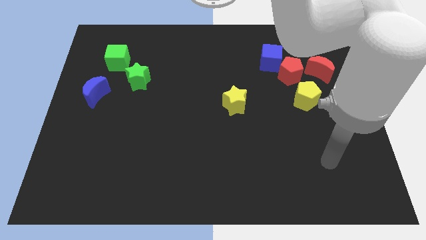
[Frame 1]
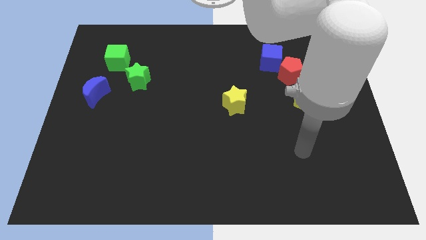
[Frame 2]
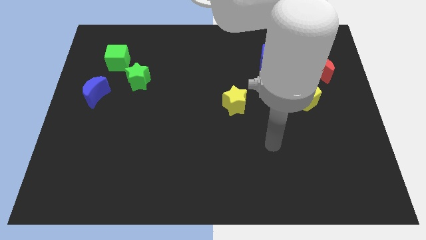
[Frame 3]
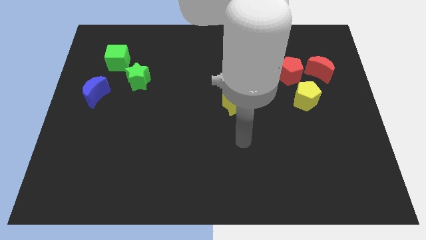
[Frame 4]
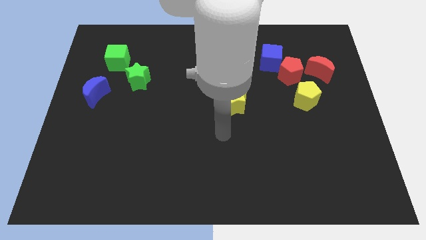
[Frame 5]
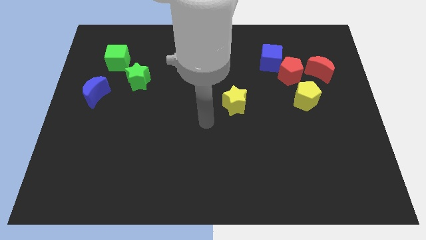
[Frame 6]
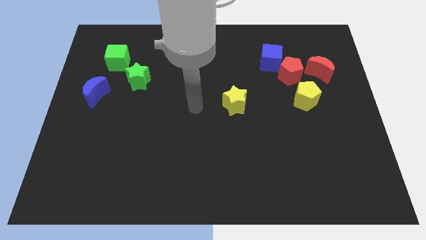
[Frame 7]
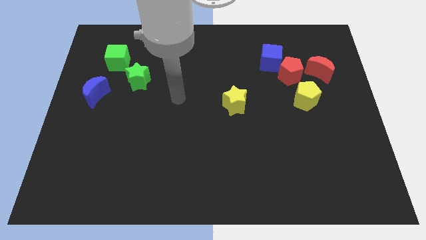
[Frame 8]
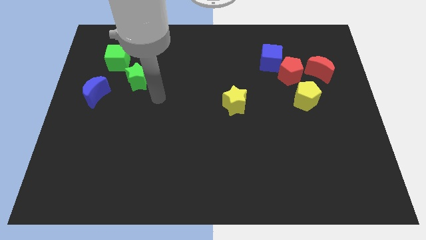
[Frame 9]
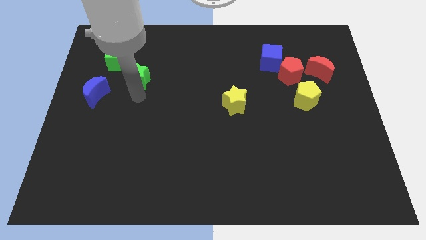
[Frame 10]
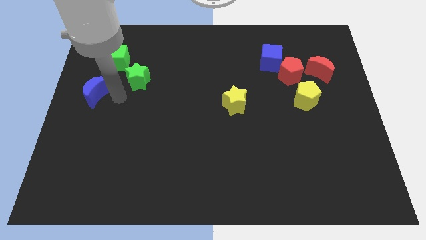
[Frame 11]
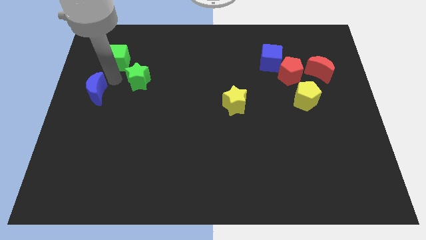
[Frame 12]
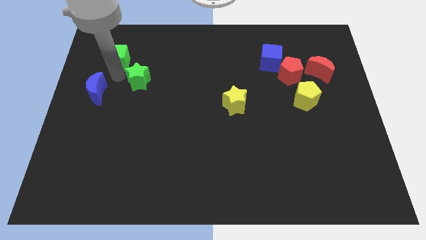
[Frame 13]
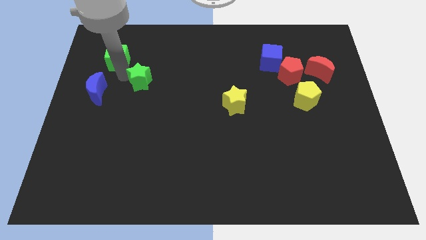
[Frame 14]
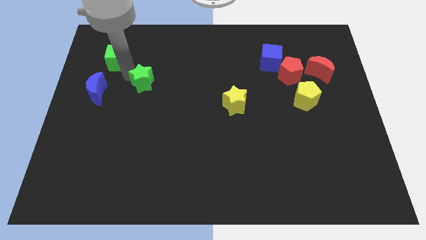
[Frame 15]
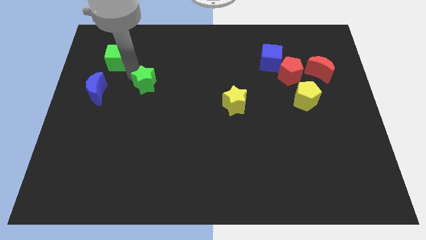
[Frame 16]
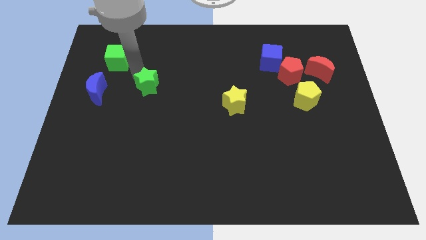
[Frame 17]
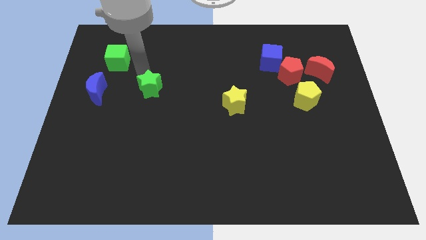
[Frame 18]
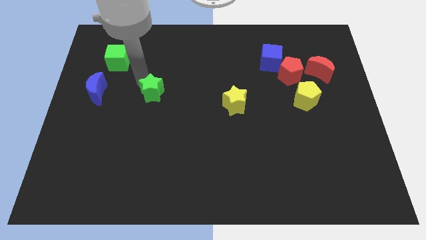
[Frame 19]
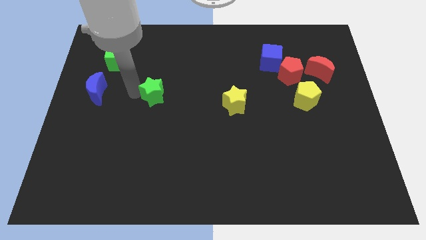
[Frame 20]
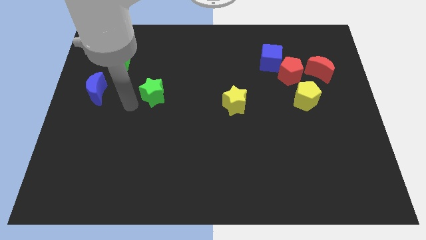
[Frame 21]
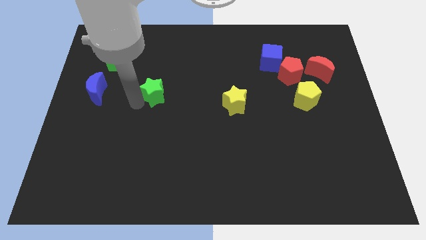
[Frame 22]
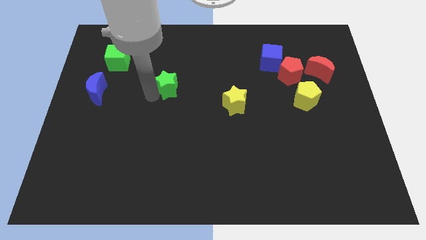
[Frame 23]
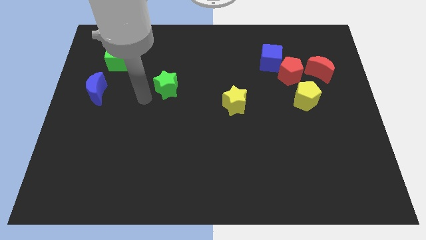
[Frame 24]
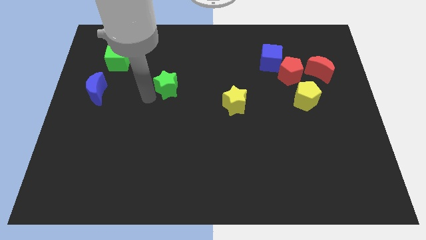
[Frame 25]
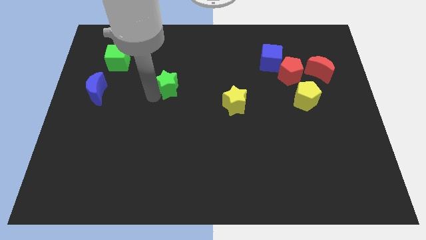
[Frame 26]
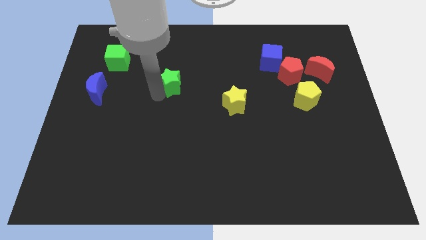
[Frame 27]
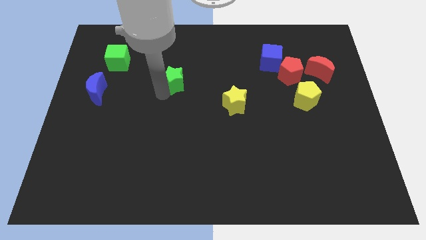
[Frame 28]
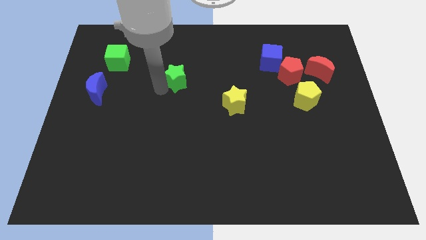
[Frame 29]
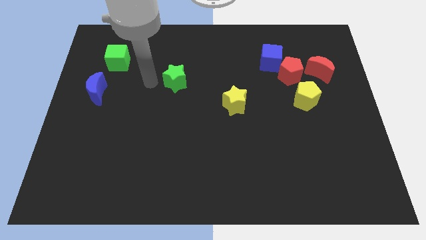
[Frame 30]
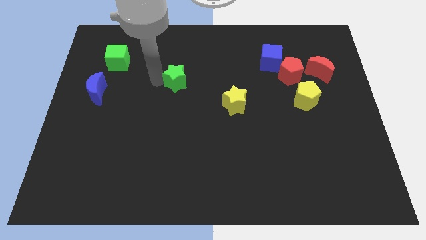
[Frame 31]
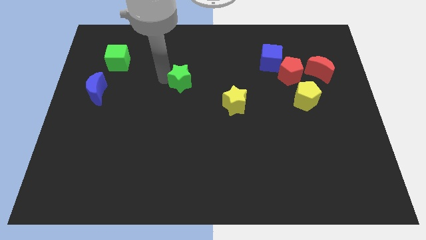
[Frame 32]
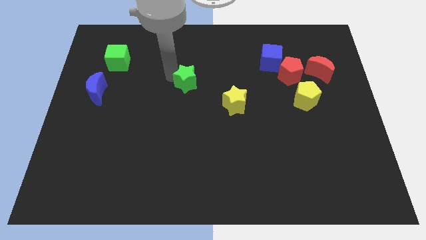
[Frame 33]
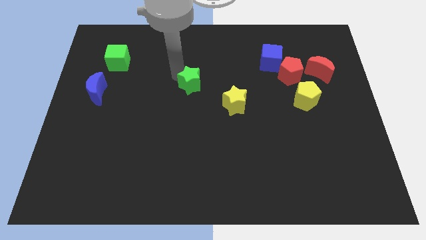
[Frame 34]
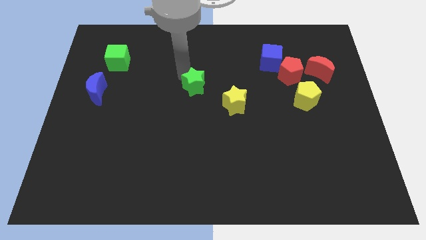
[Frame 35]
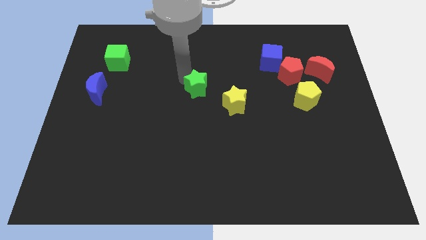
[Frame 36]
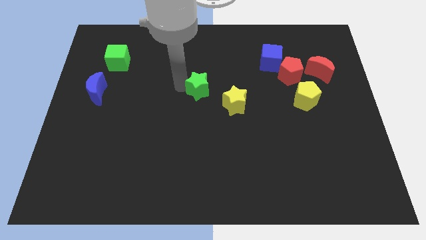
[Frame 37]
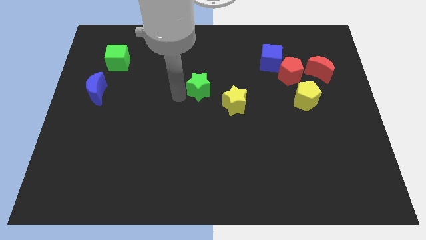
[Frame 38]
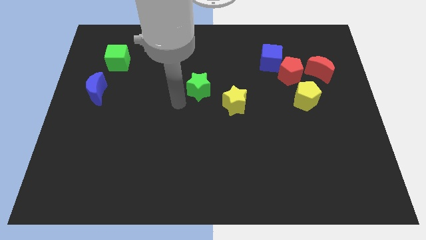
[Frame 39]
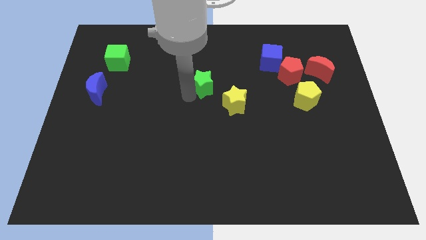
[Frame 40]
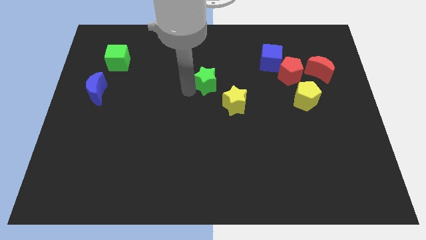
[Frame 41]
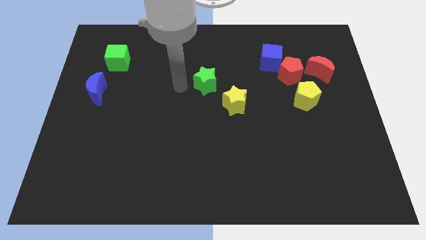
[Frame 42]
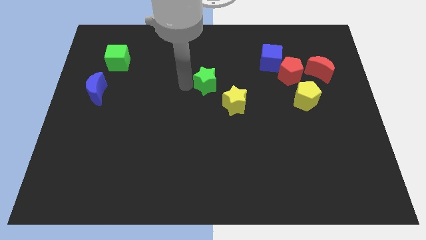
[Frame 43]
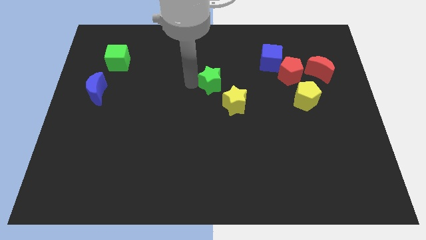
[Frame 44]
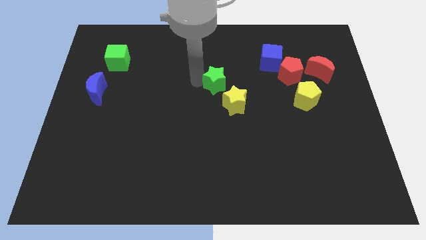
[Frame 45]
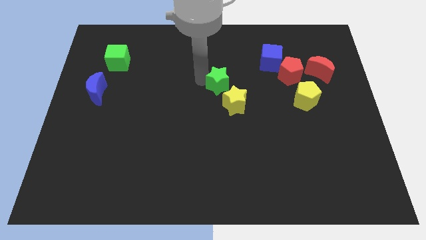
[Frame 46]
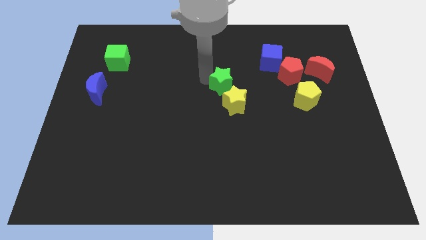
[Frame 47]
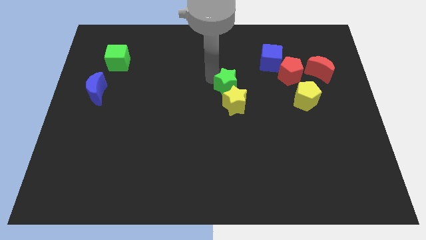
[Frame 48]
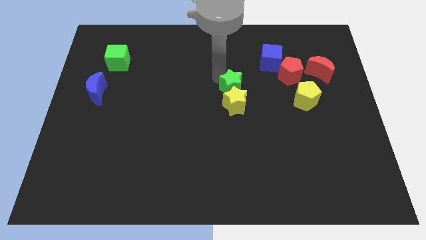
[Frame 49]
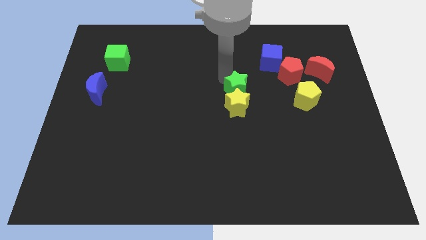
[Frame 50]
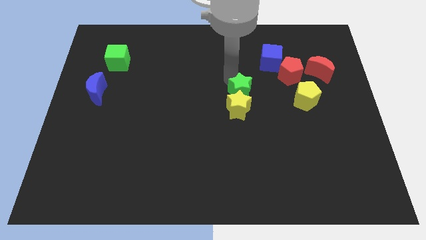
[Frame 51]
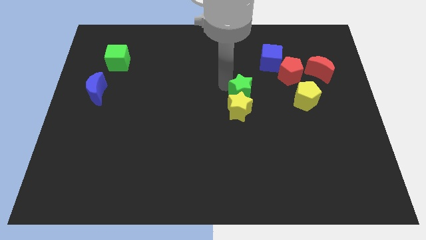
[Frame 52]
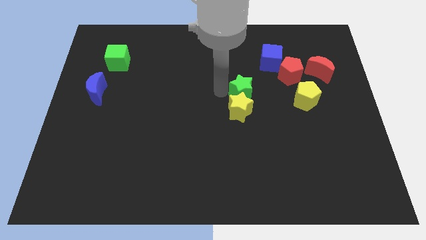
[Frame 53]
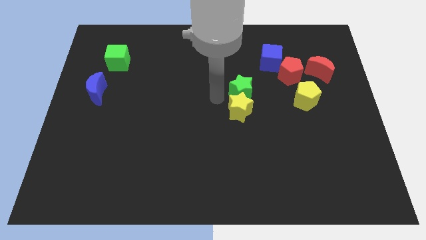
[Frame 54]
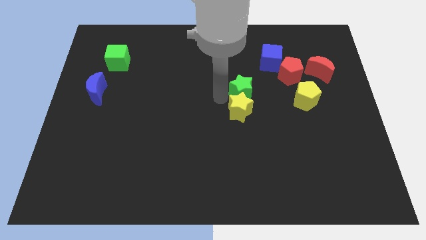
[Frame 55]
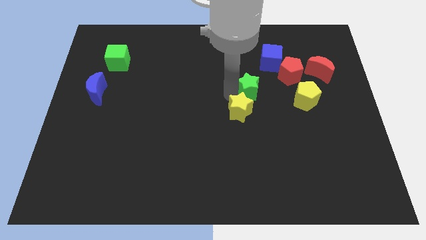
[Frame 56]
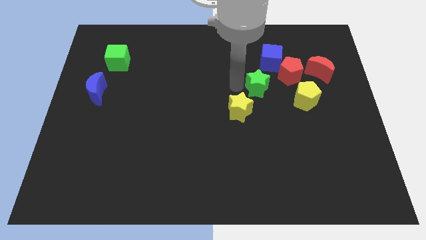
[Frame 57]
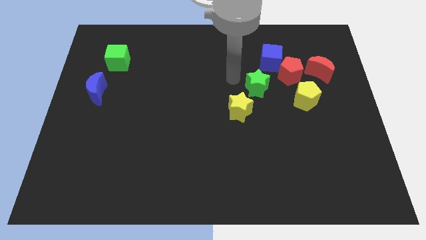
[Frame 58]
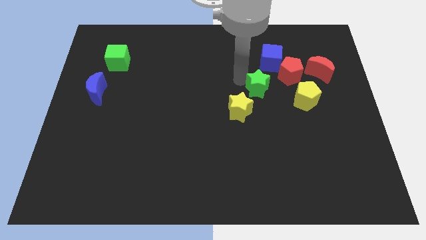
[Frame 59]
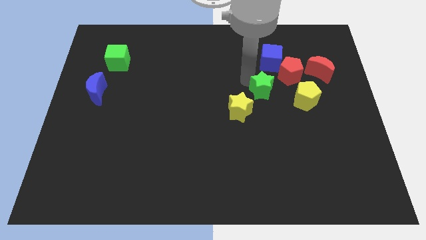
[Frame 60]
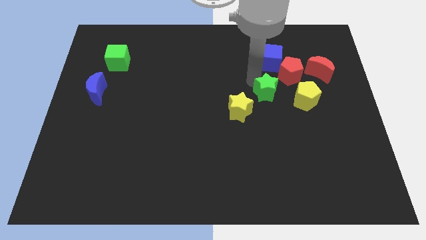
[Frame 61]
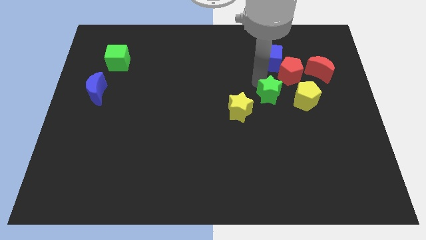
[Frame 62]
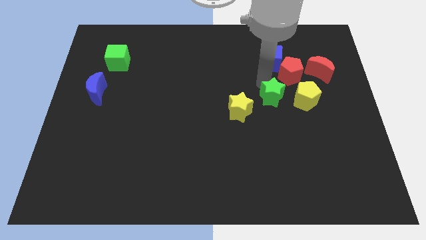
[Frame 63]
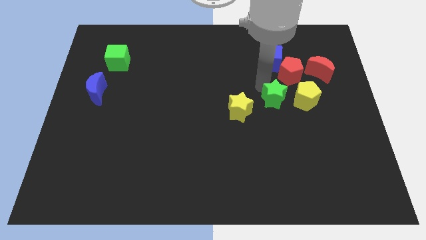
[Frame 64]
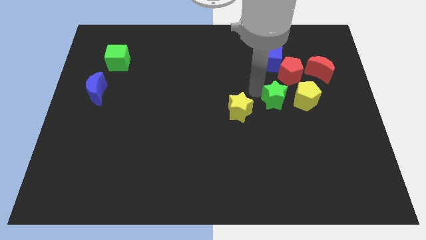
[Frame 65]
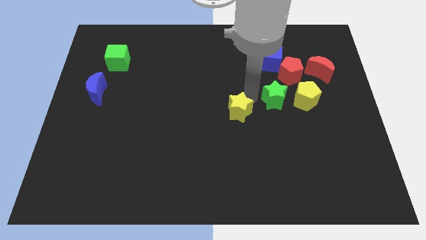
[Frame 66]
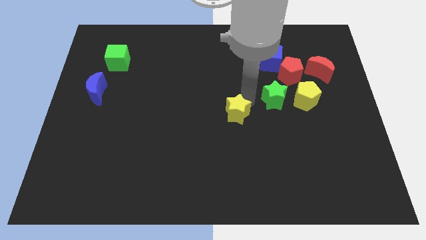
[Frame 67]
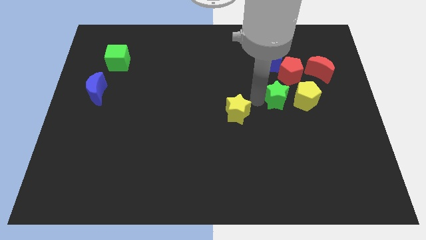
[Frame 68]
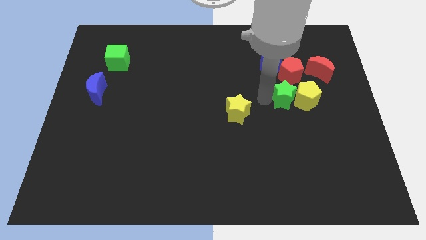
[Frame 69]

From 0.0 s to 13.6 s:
put the green star close to the yellow pentagon

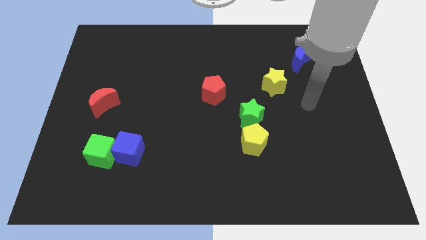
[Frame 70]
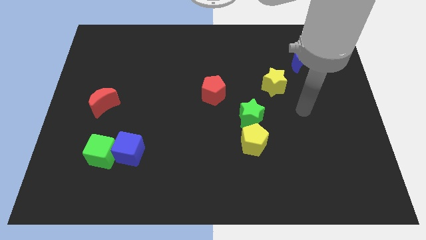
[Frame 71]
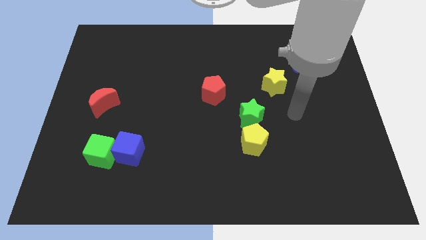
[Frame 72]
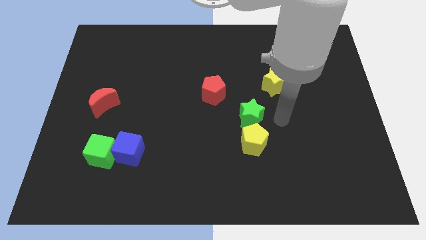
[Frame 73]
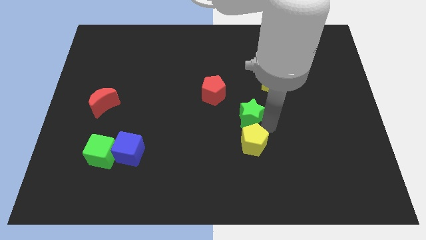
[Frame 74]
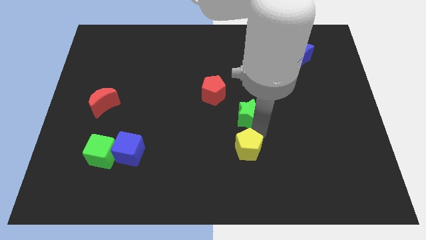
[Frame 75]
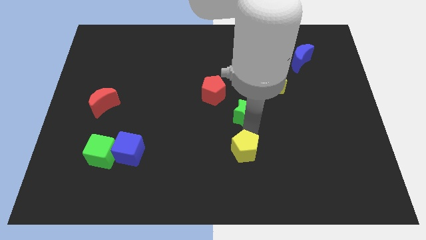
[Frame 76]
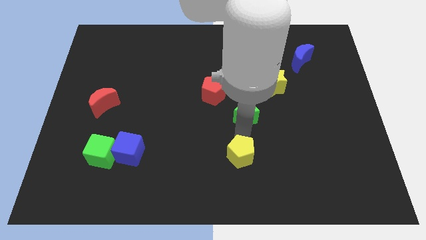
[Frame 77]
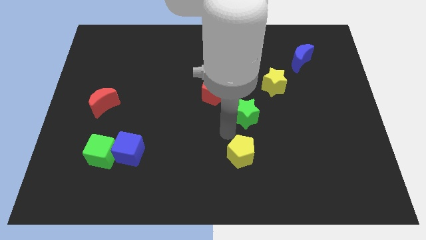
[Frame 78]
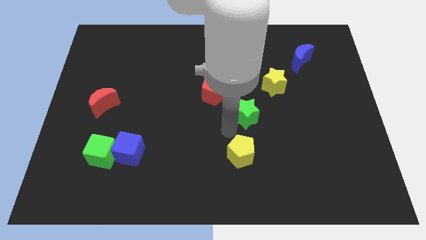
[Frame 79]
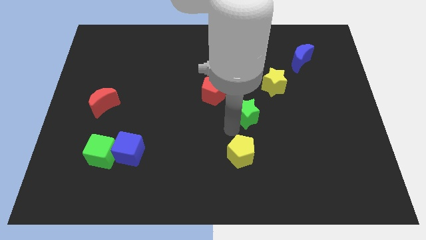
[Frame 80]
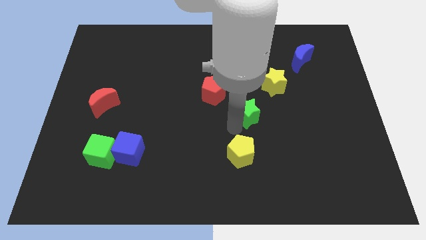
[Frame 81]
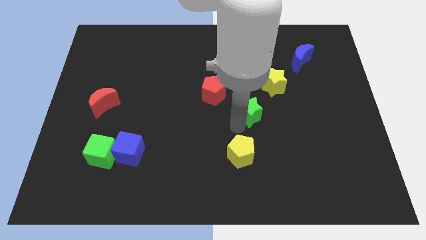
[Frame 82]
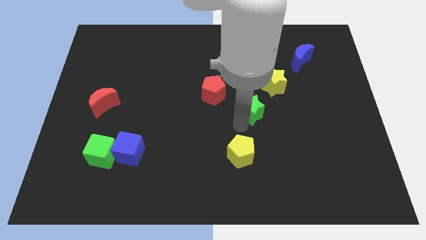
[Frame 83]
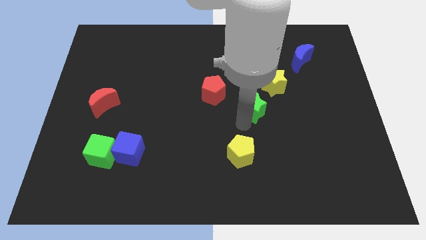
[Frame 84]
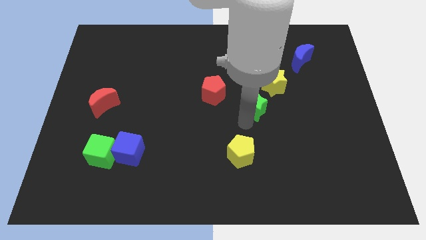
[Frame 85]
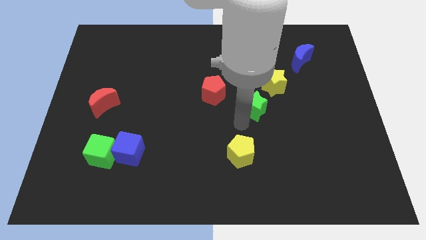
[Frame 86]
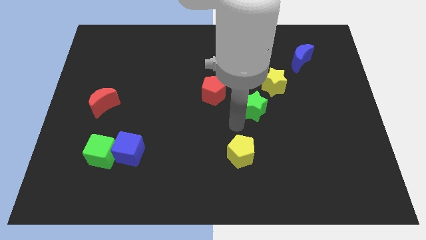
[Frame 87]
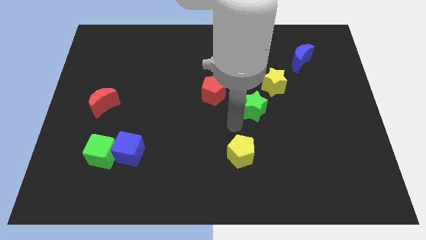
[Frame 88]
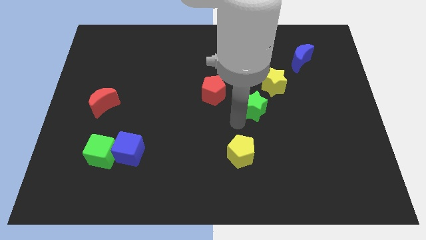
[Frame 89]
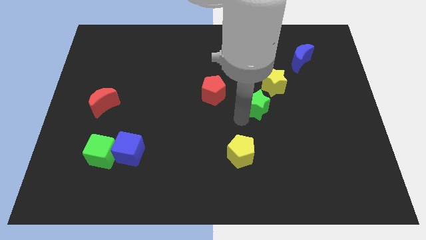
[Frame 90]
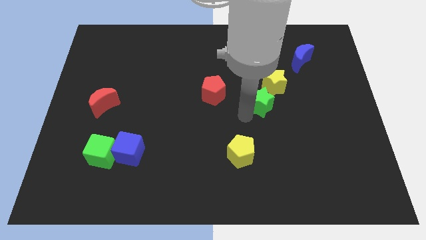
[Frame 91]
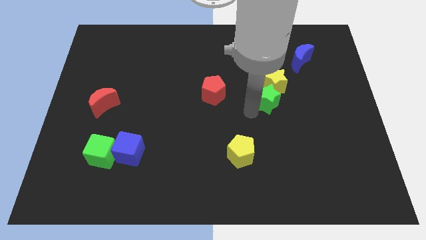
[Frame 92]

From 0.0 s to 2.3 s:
push the green star close to the yellow star
